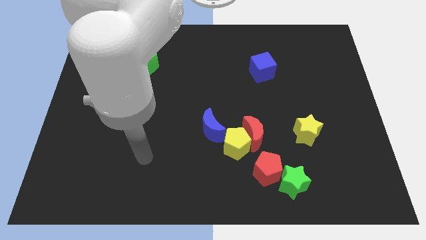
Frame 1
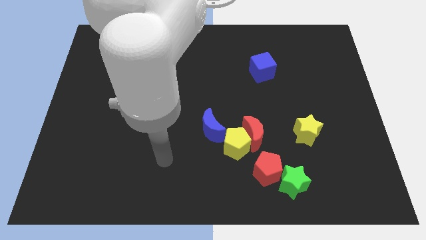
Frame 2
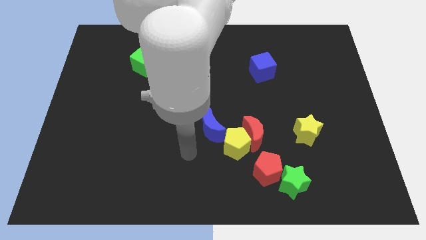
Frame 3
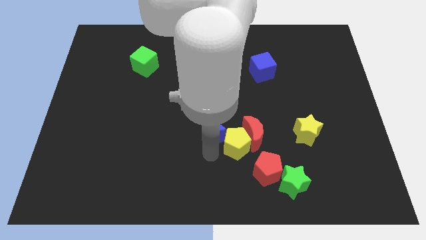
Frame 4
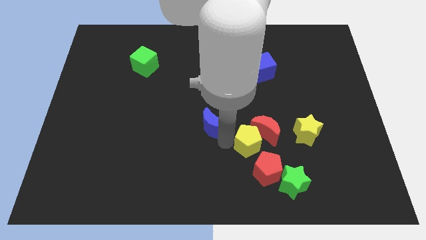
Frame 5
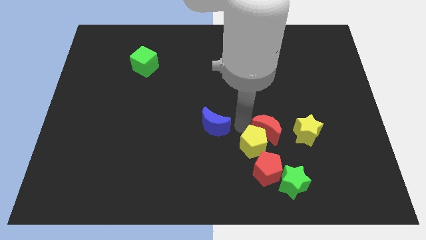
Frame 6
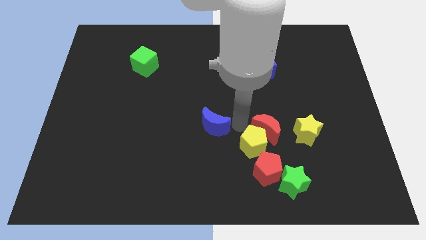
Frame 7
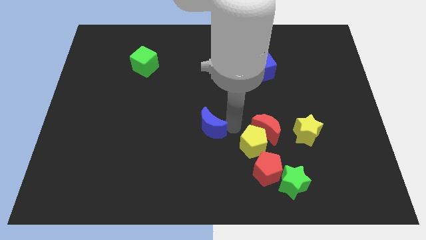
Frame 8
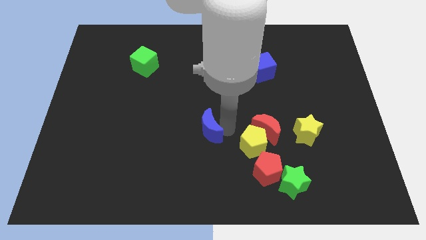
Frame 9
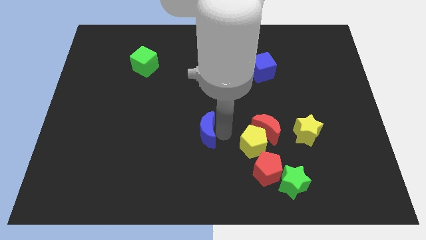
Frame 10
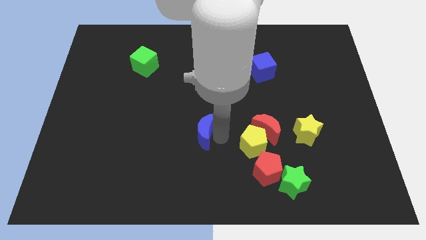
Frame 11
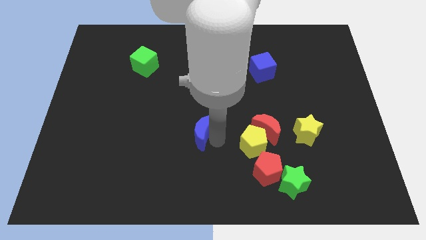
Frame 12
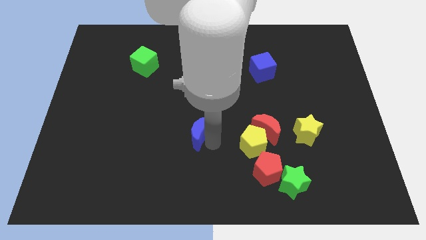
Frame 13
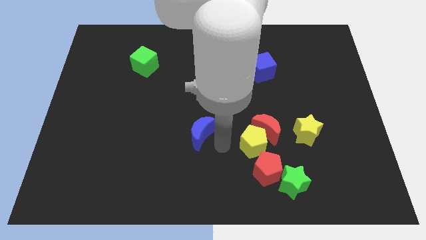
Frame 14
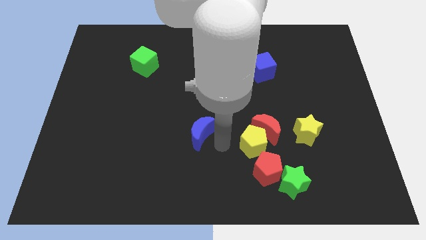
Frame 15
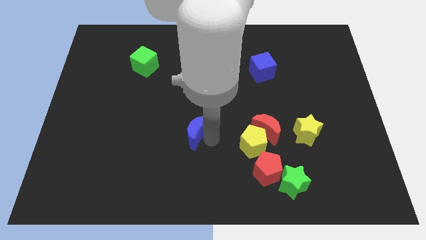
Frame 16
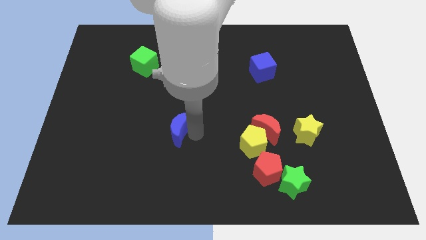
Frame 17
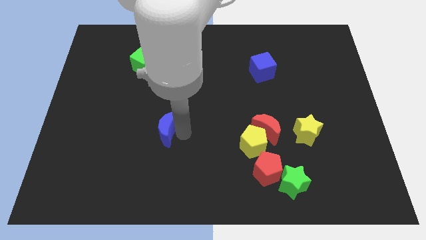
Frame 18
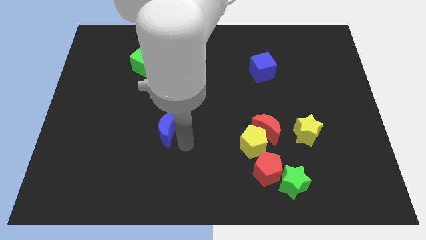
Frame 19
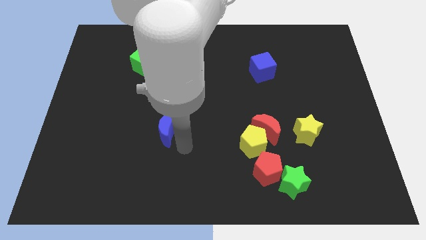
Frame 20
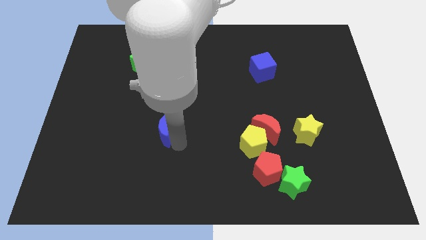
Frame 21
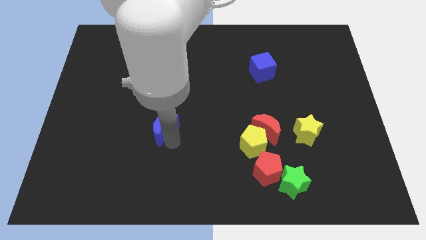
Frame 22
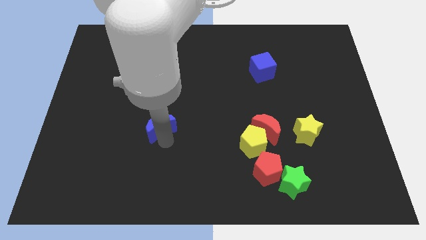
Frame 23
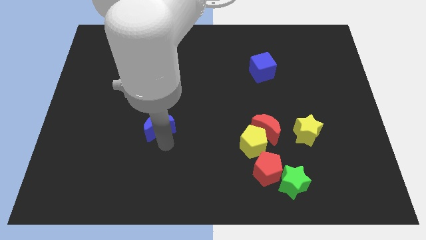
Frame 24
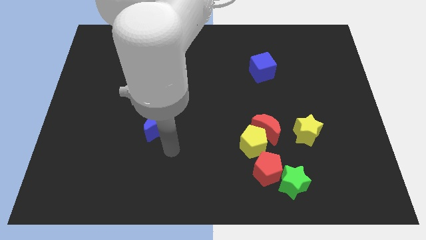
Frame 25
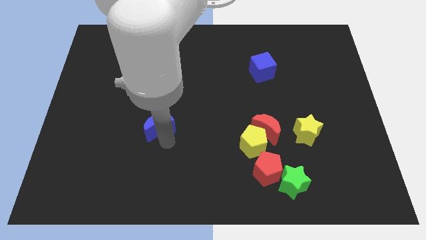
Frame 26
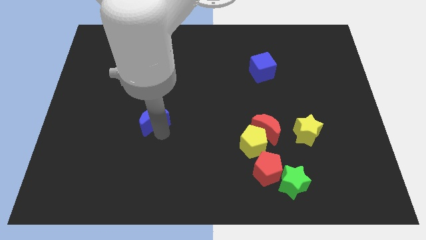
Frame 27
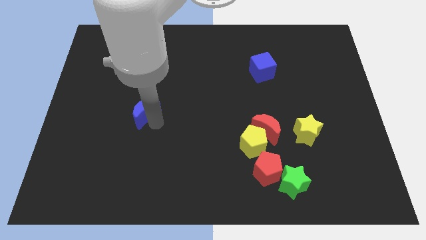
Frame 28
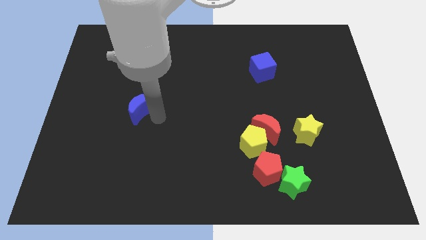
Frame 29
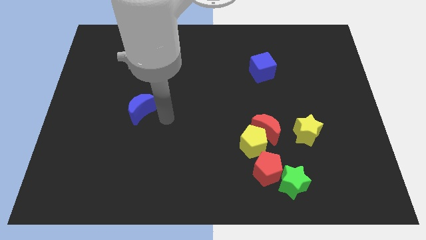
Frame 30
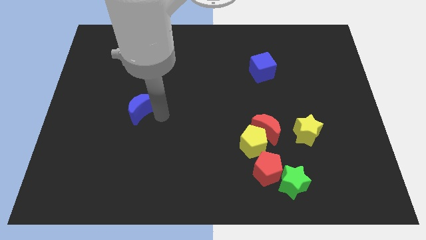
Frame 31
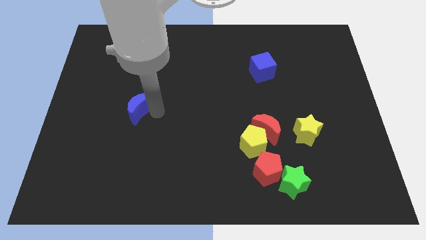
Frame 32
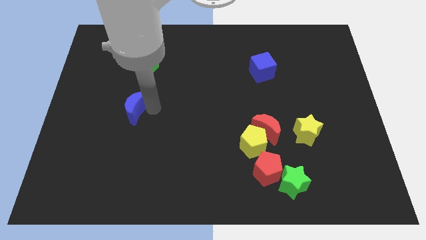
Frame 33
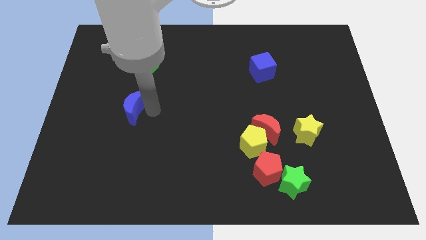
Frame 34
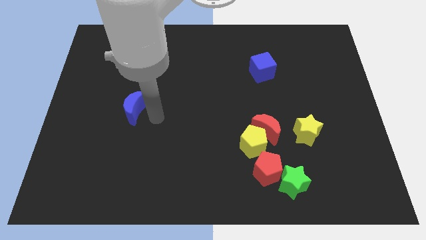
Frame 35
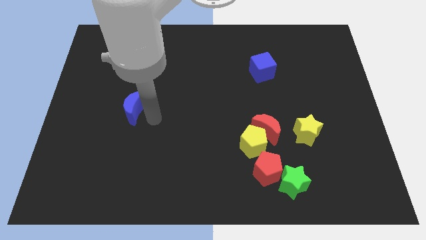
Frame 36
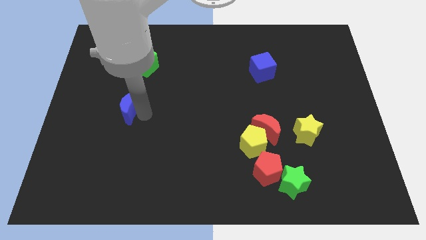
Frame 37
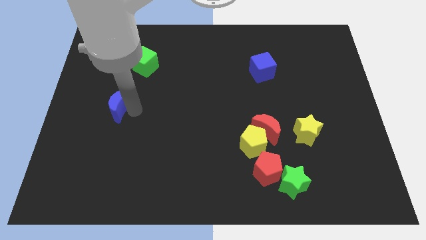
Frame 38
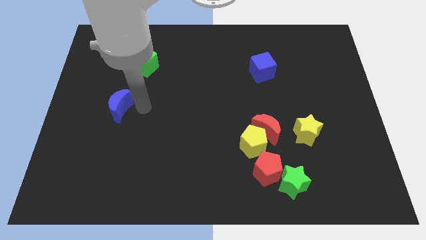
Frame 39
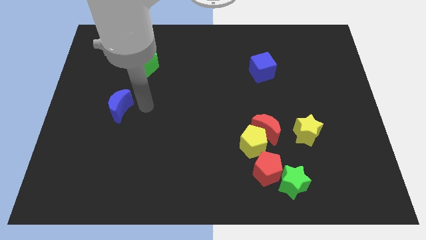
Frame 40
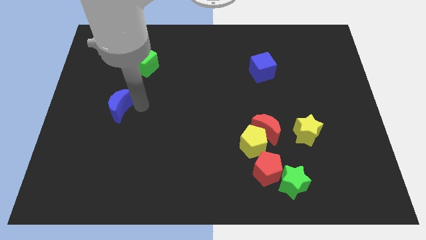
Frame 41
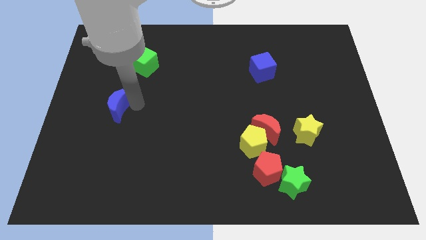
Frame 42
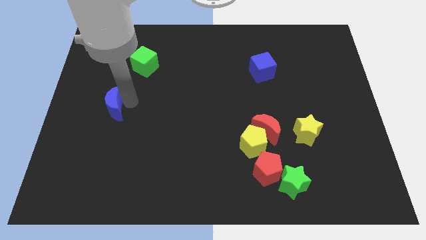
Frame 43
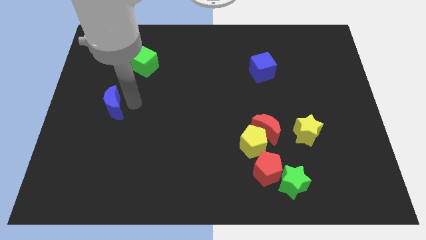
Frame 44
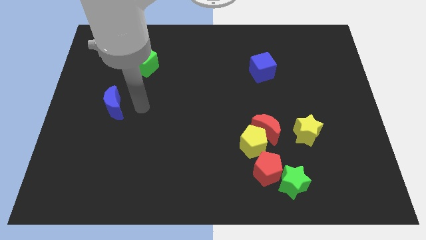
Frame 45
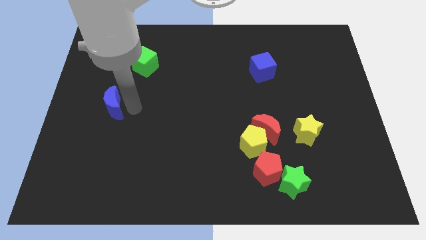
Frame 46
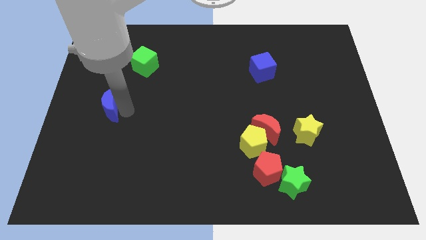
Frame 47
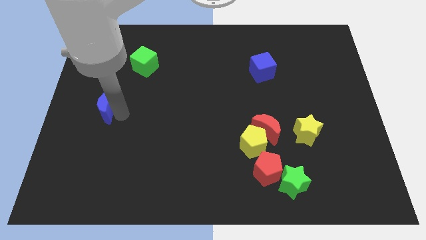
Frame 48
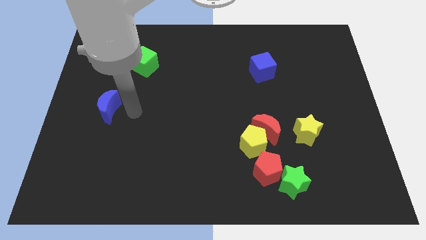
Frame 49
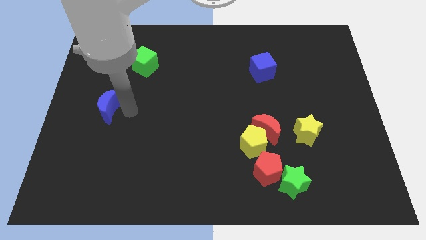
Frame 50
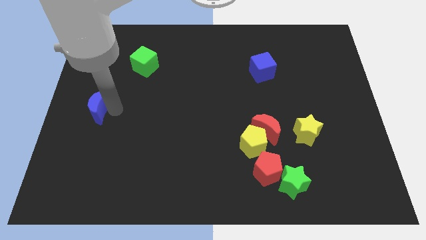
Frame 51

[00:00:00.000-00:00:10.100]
push the blue moon to the left side

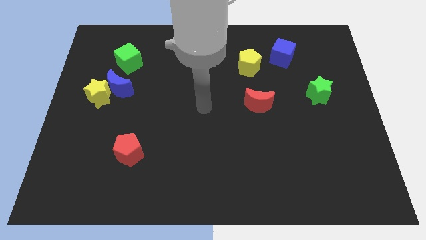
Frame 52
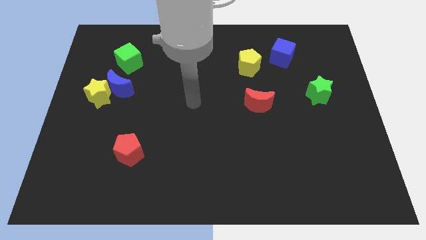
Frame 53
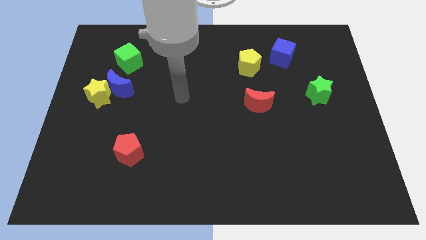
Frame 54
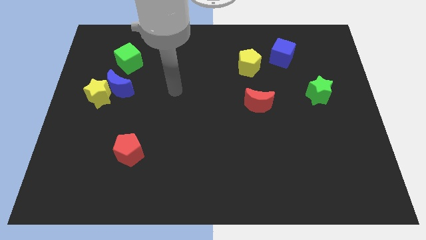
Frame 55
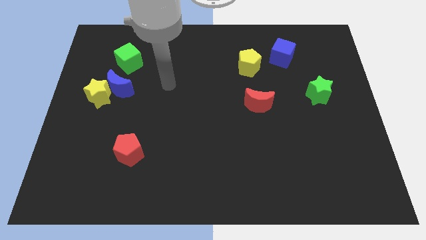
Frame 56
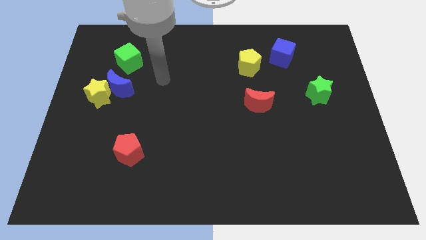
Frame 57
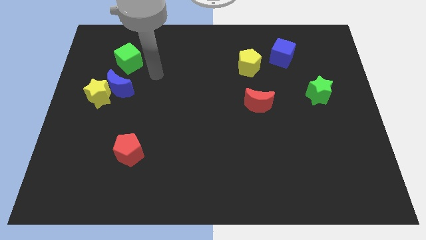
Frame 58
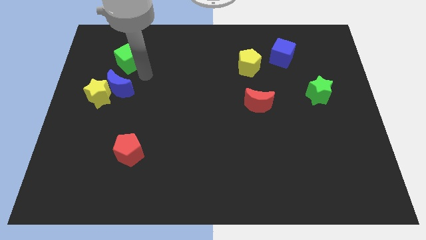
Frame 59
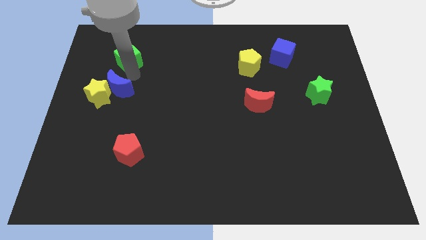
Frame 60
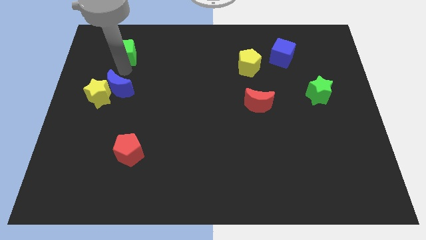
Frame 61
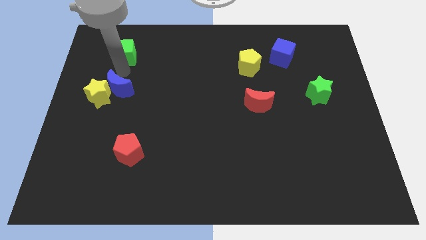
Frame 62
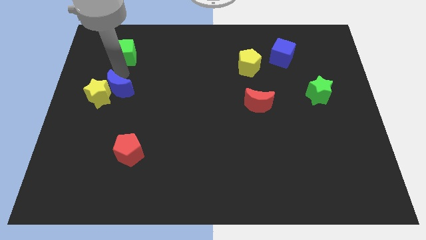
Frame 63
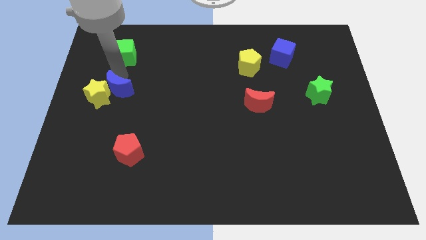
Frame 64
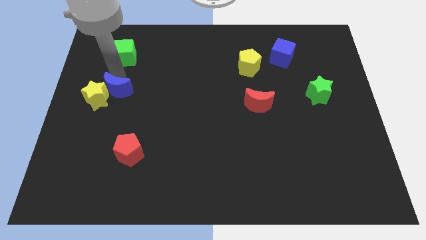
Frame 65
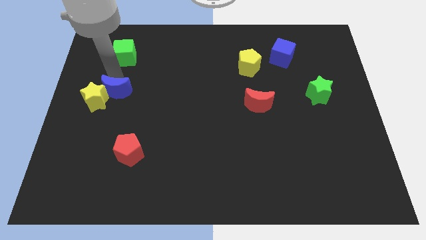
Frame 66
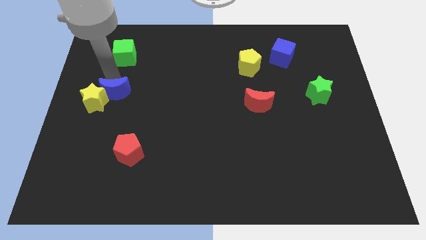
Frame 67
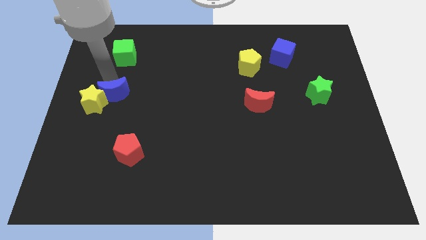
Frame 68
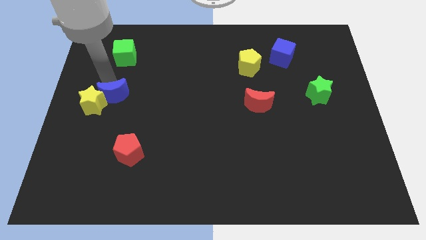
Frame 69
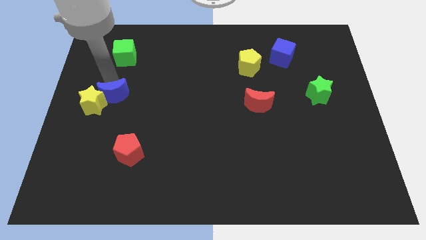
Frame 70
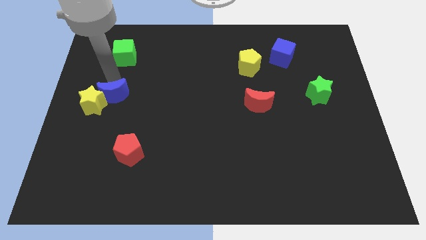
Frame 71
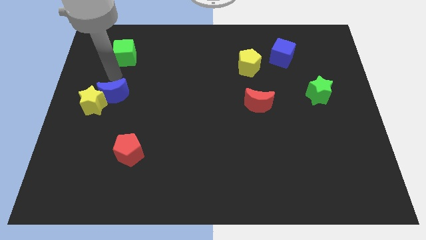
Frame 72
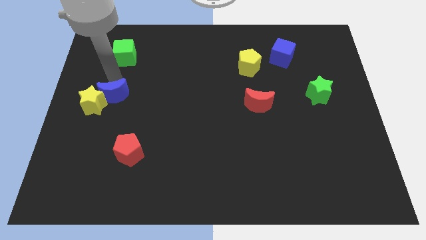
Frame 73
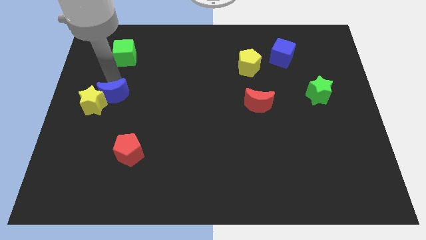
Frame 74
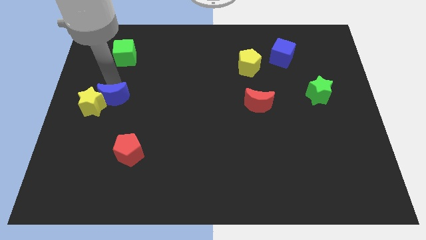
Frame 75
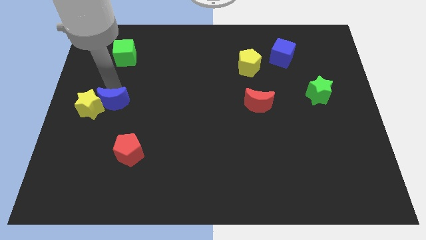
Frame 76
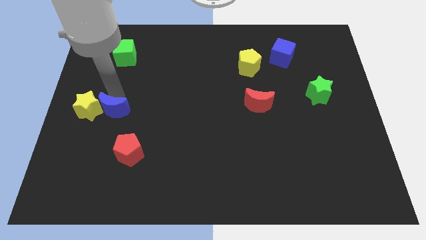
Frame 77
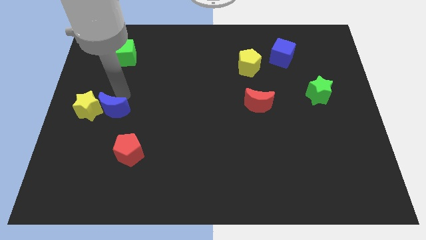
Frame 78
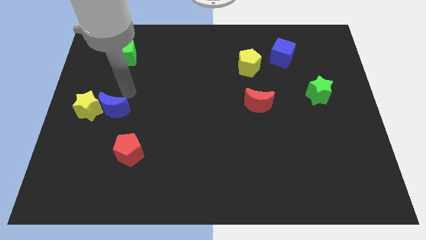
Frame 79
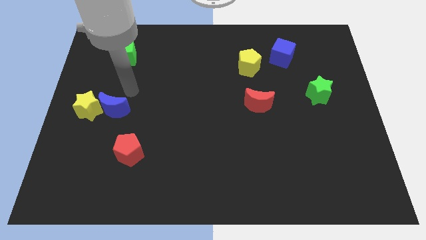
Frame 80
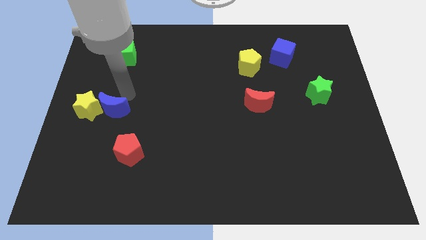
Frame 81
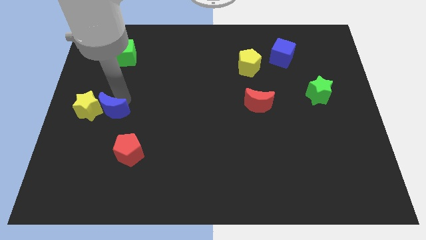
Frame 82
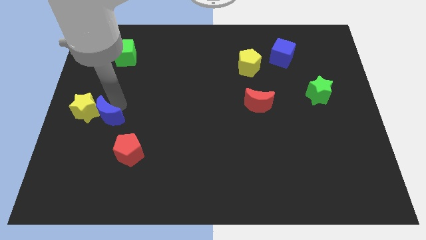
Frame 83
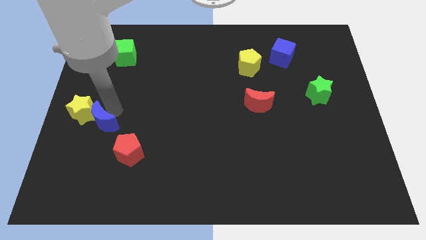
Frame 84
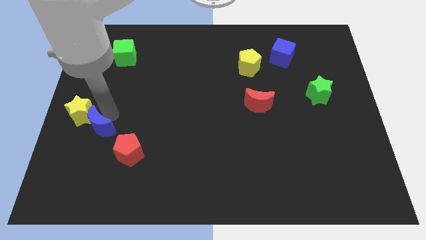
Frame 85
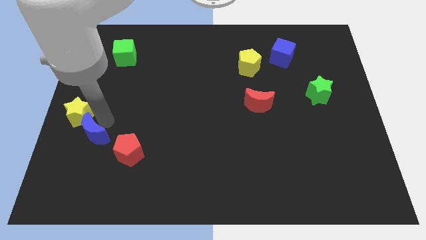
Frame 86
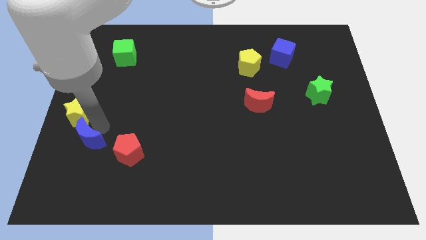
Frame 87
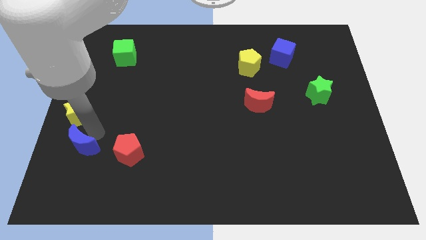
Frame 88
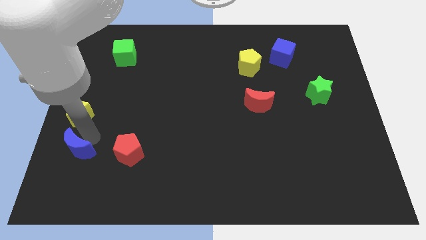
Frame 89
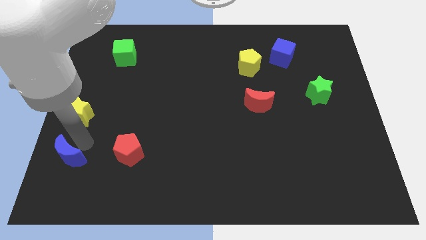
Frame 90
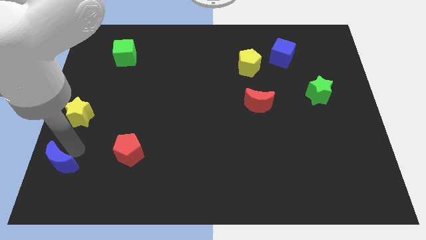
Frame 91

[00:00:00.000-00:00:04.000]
push the blue moon to the bottom left of the board
